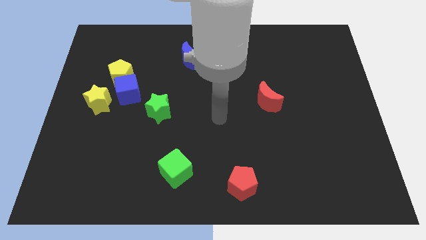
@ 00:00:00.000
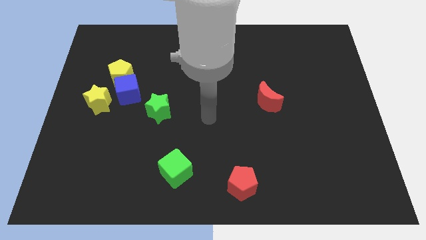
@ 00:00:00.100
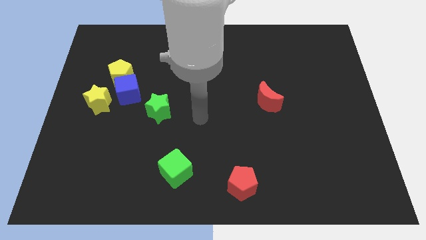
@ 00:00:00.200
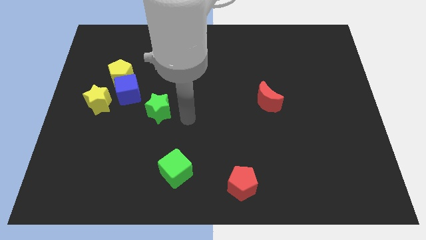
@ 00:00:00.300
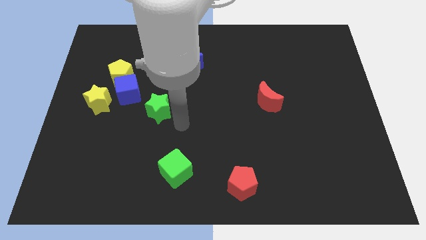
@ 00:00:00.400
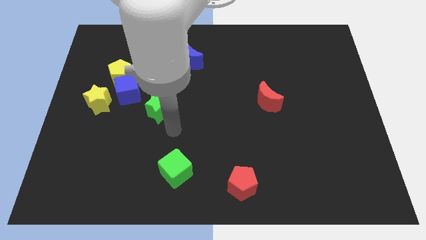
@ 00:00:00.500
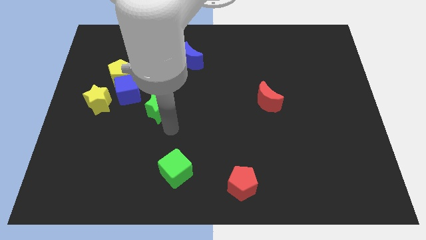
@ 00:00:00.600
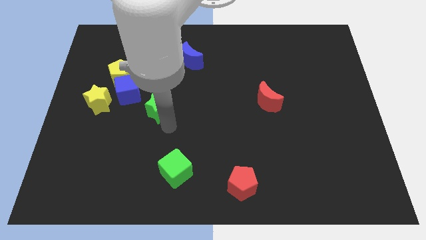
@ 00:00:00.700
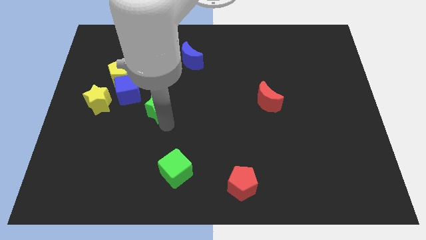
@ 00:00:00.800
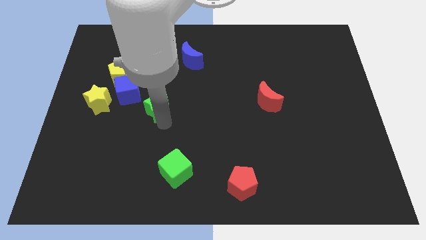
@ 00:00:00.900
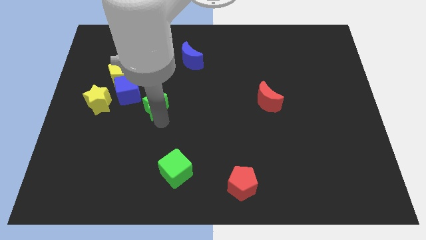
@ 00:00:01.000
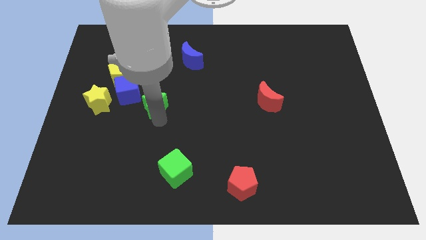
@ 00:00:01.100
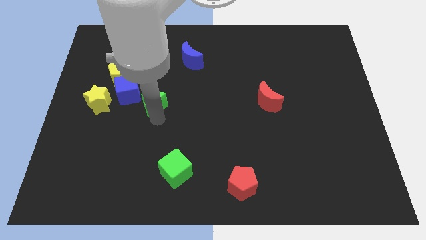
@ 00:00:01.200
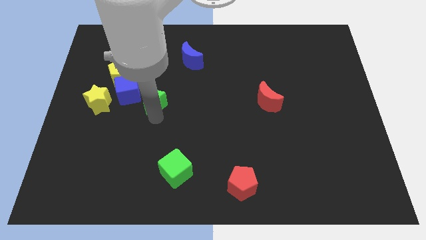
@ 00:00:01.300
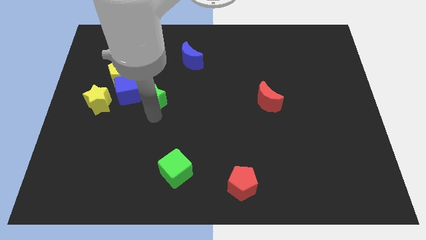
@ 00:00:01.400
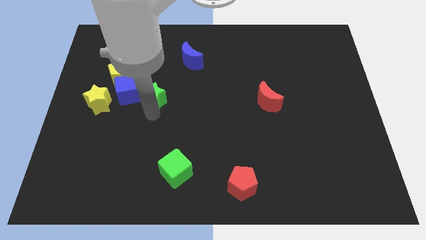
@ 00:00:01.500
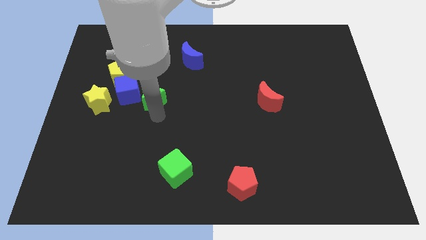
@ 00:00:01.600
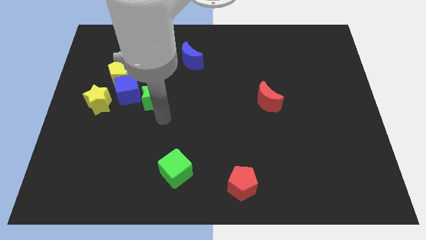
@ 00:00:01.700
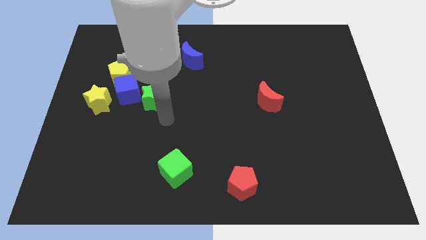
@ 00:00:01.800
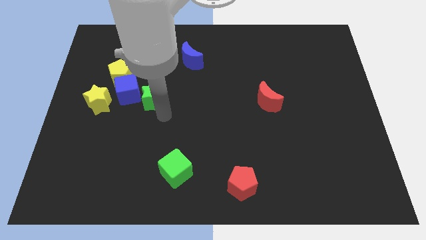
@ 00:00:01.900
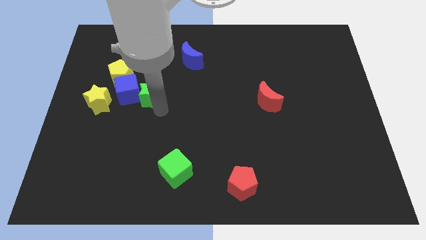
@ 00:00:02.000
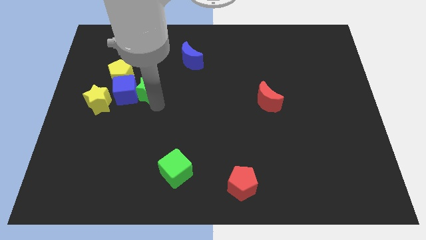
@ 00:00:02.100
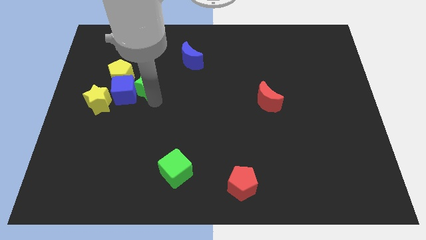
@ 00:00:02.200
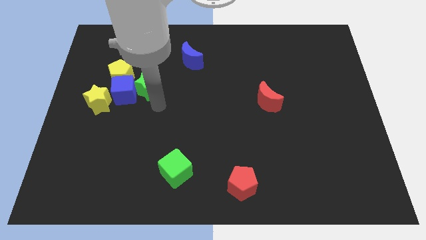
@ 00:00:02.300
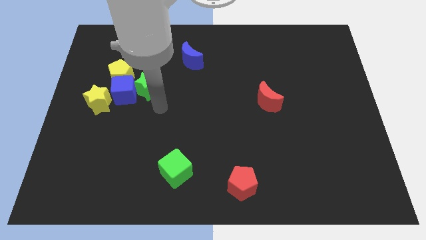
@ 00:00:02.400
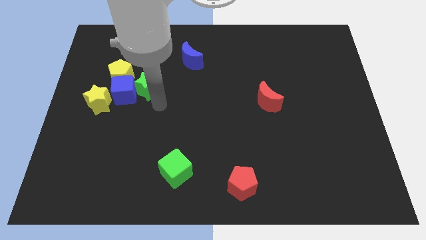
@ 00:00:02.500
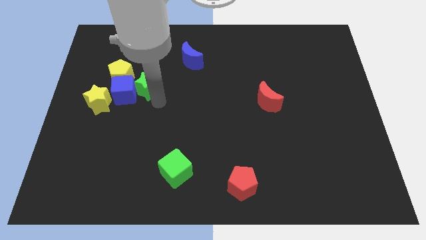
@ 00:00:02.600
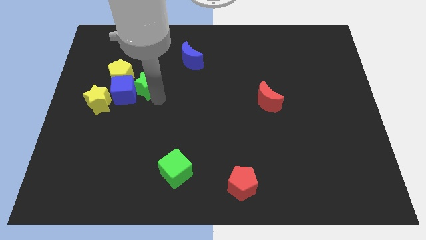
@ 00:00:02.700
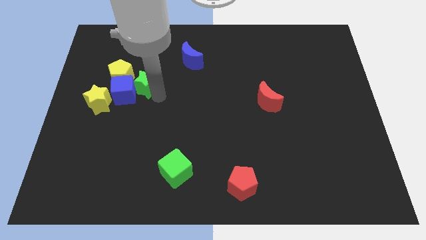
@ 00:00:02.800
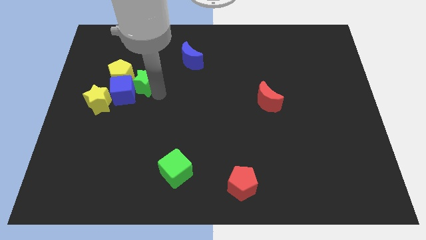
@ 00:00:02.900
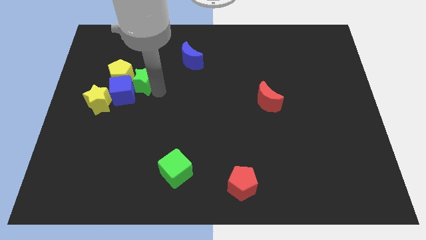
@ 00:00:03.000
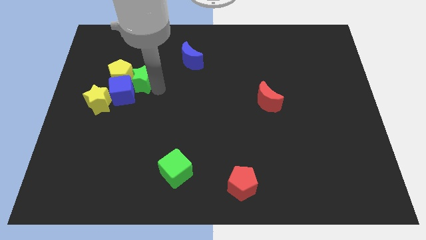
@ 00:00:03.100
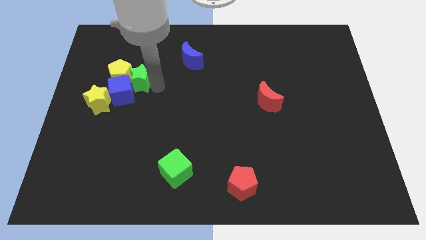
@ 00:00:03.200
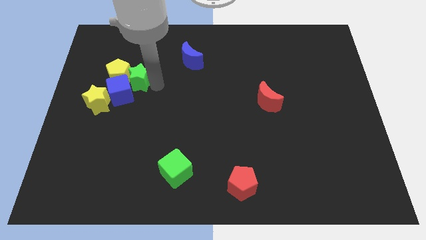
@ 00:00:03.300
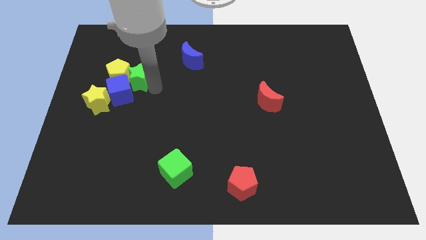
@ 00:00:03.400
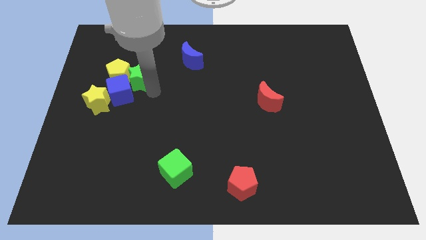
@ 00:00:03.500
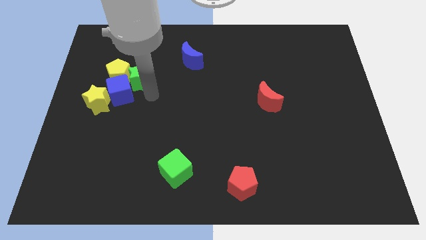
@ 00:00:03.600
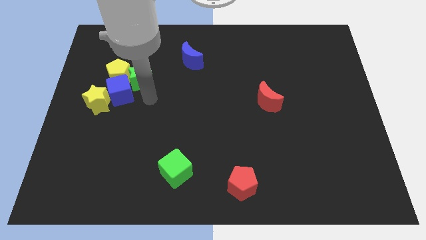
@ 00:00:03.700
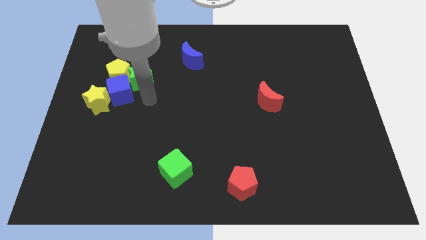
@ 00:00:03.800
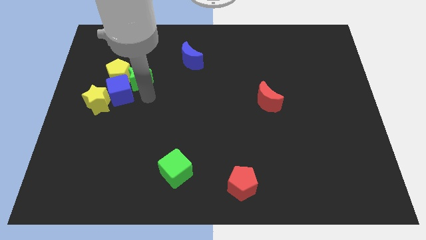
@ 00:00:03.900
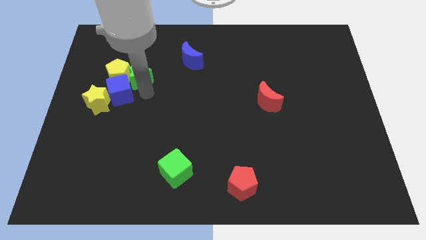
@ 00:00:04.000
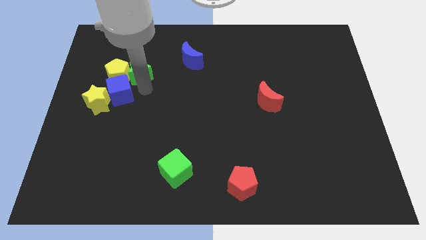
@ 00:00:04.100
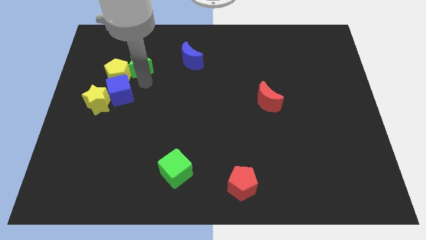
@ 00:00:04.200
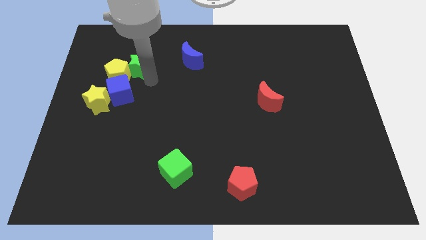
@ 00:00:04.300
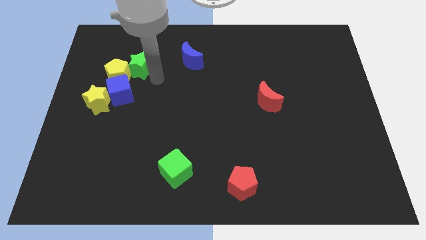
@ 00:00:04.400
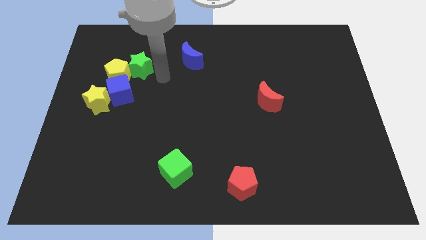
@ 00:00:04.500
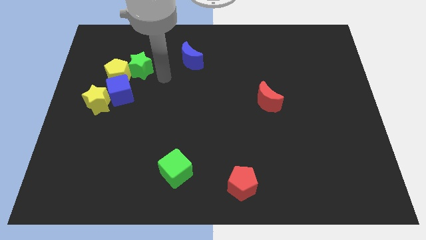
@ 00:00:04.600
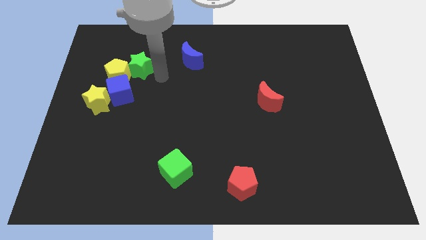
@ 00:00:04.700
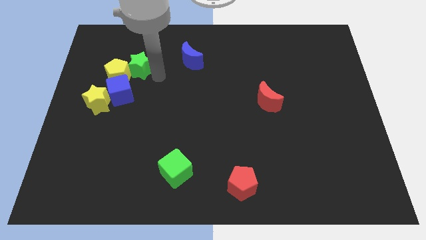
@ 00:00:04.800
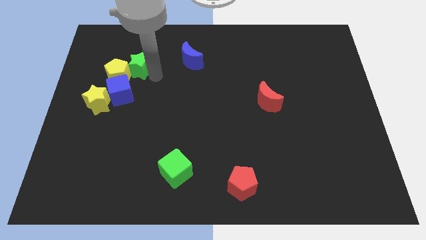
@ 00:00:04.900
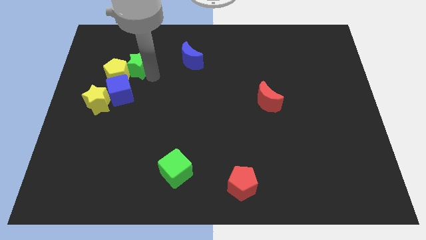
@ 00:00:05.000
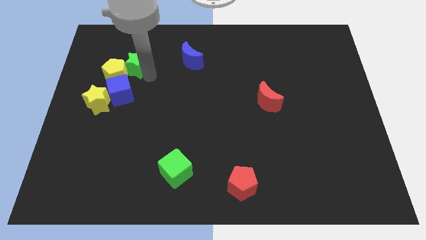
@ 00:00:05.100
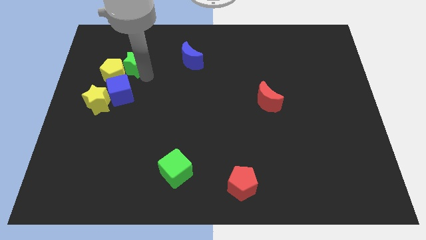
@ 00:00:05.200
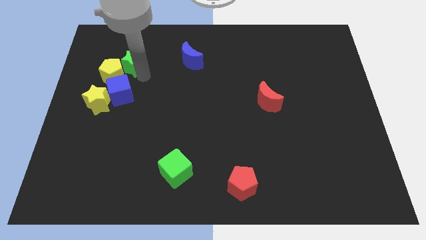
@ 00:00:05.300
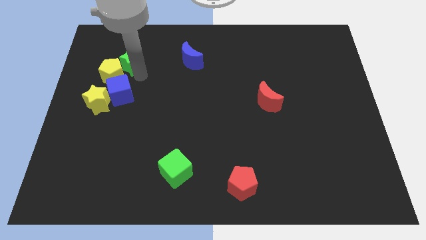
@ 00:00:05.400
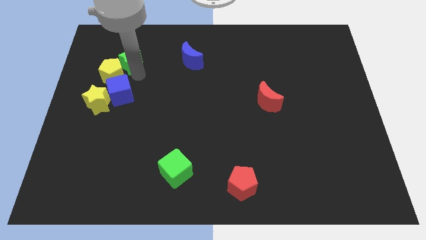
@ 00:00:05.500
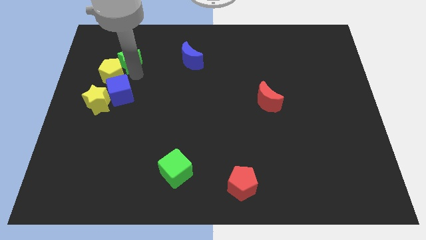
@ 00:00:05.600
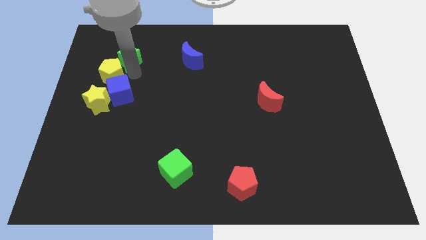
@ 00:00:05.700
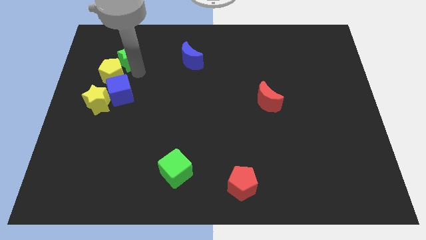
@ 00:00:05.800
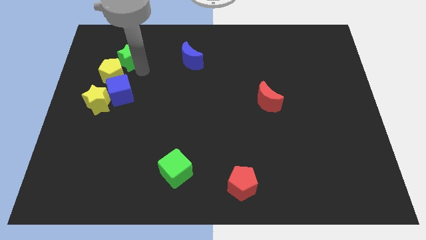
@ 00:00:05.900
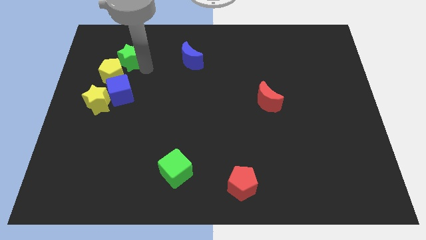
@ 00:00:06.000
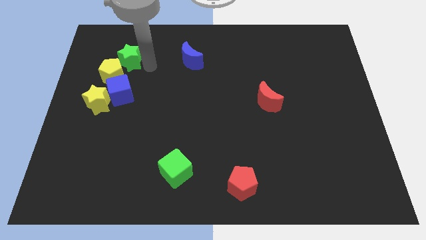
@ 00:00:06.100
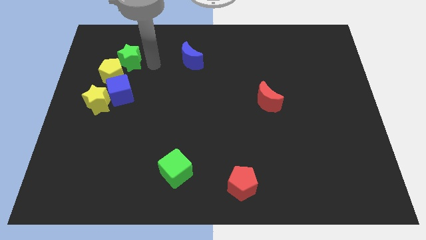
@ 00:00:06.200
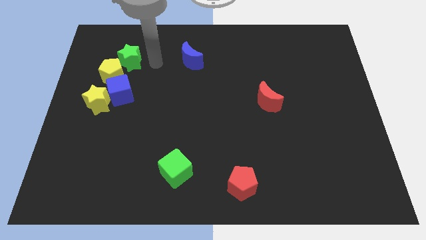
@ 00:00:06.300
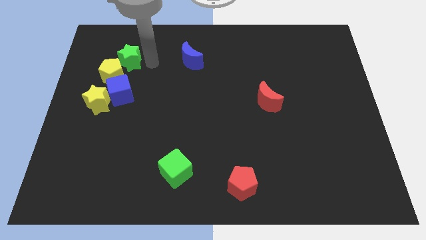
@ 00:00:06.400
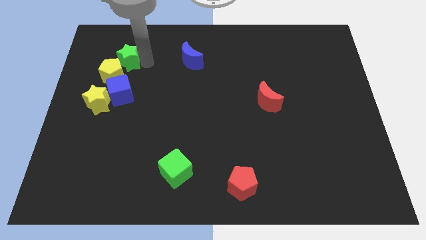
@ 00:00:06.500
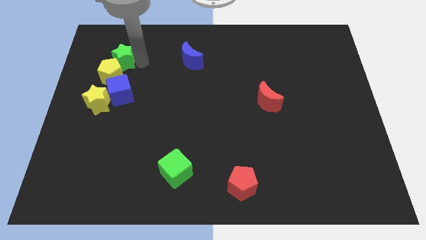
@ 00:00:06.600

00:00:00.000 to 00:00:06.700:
slide the green star to the top side of the yellow star

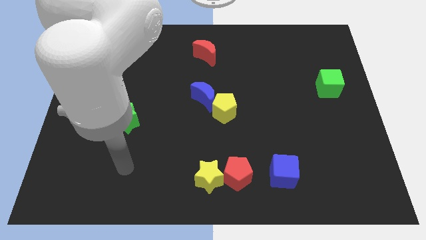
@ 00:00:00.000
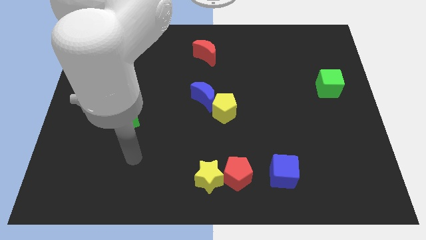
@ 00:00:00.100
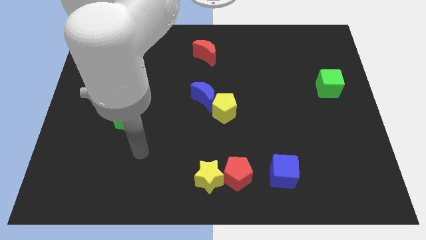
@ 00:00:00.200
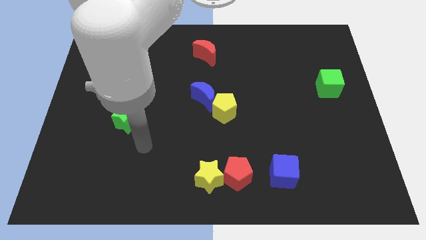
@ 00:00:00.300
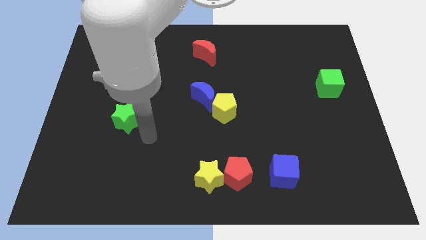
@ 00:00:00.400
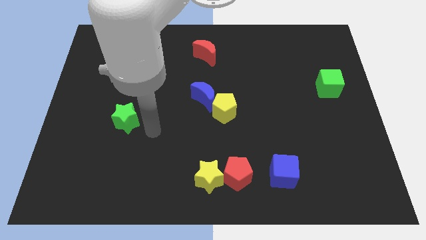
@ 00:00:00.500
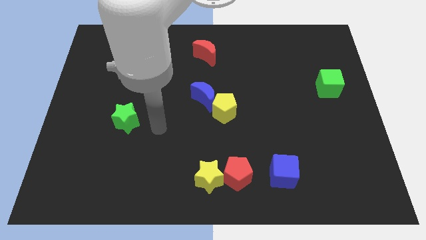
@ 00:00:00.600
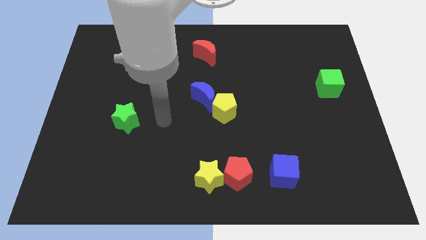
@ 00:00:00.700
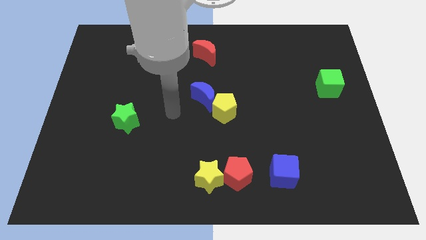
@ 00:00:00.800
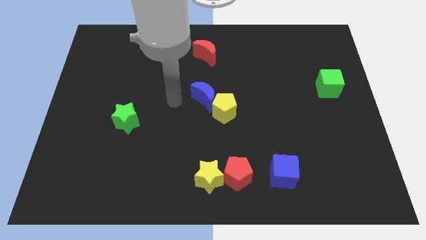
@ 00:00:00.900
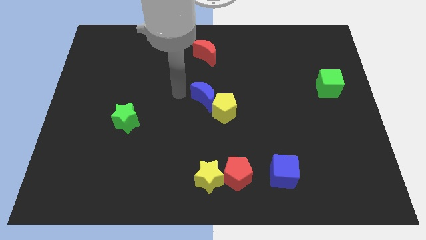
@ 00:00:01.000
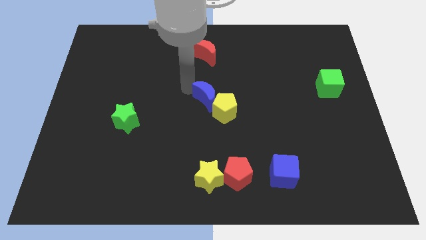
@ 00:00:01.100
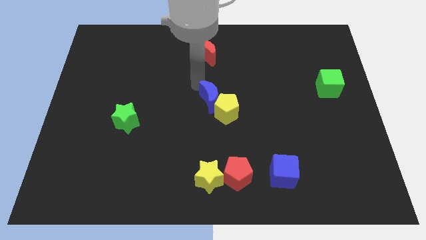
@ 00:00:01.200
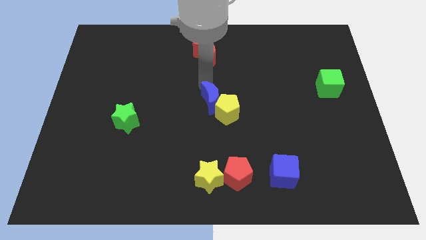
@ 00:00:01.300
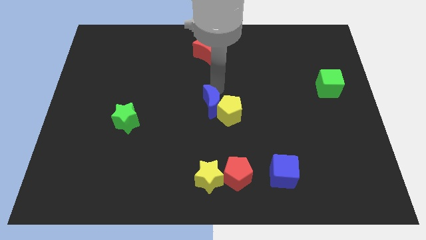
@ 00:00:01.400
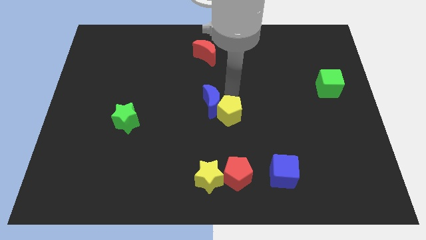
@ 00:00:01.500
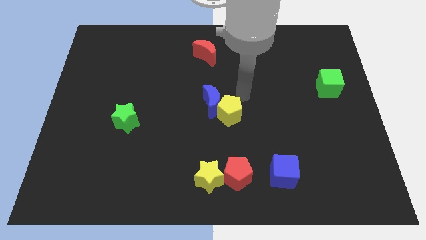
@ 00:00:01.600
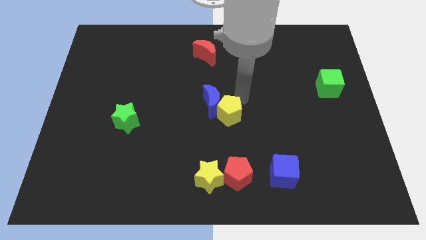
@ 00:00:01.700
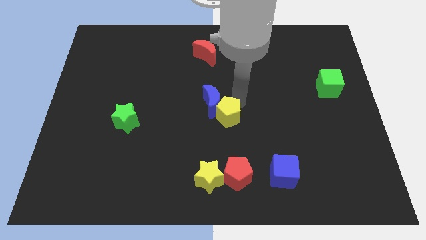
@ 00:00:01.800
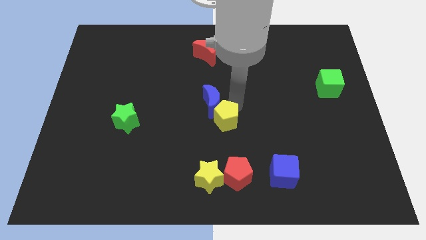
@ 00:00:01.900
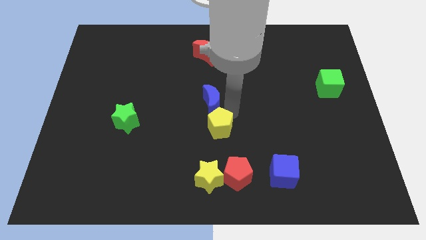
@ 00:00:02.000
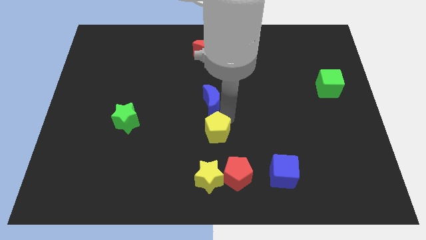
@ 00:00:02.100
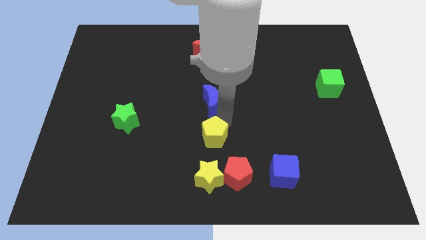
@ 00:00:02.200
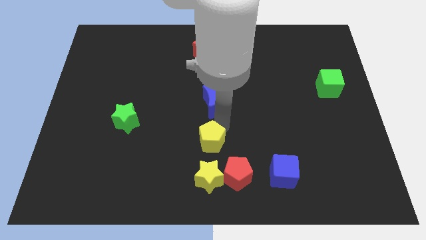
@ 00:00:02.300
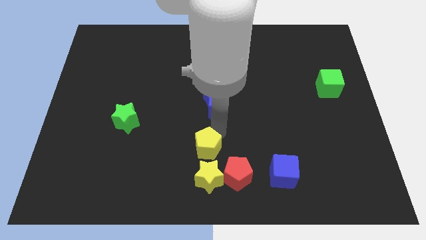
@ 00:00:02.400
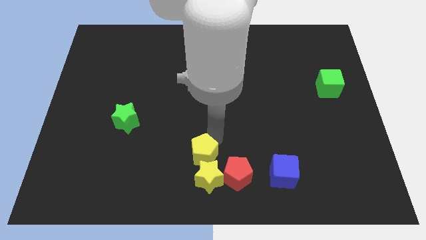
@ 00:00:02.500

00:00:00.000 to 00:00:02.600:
put the yellow pentagon to the top left side of the yellow star
